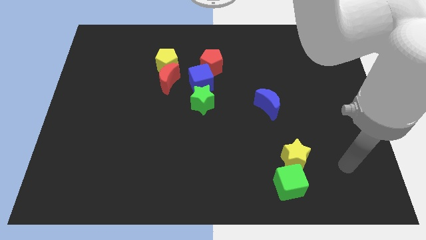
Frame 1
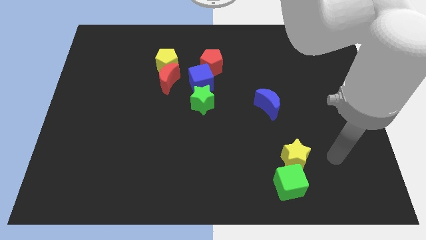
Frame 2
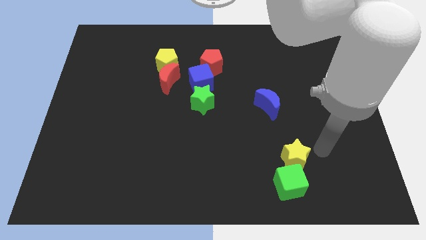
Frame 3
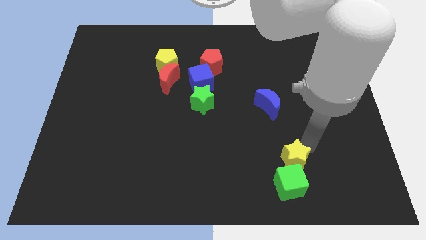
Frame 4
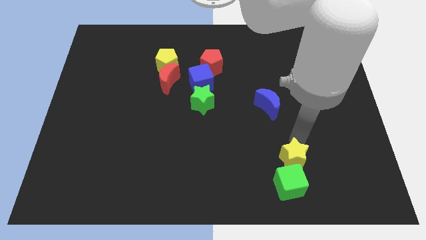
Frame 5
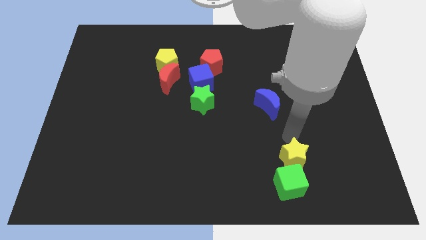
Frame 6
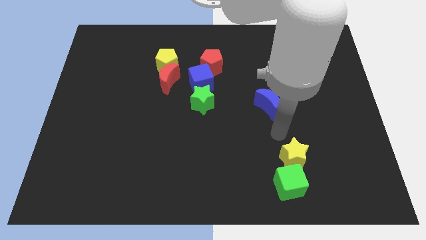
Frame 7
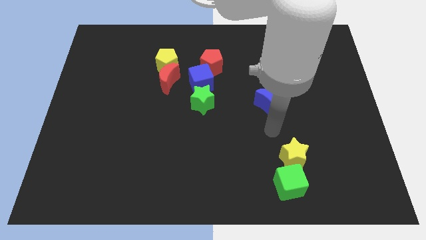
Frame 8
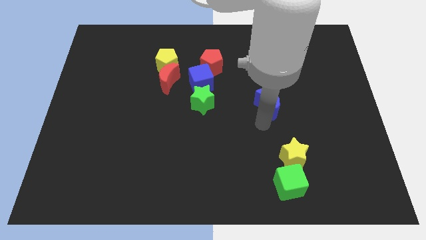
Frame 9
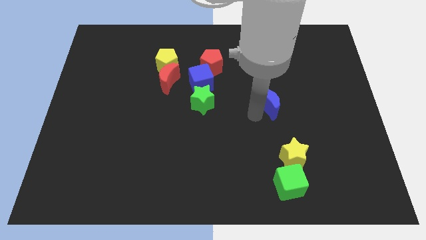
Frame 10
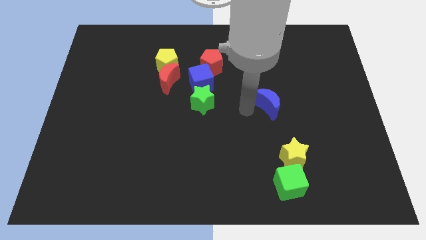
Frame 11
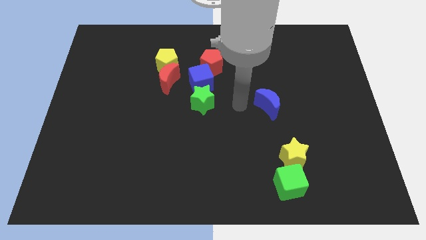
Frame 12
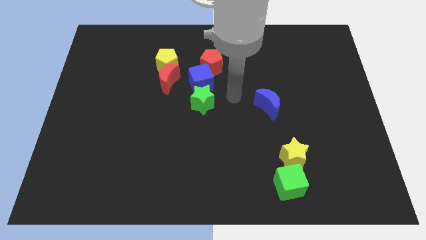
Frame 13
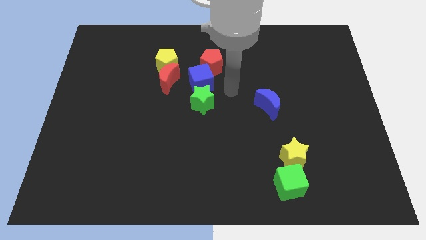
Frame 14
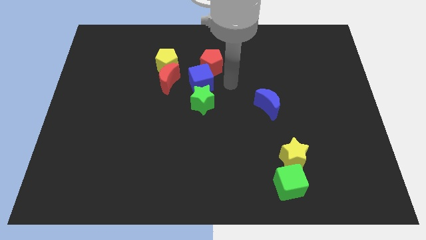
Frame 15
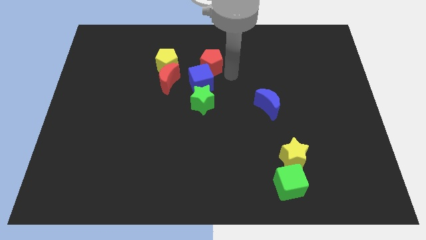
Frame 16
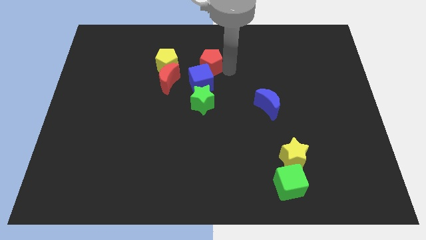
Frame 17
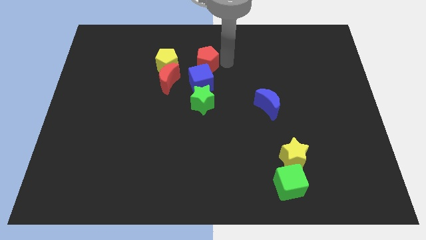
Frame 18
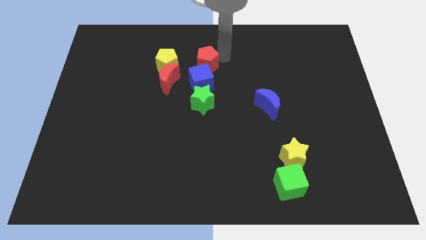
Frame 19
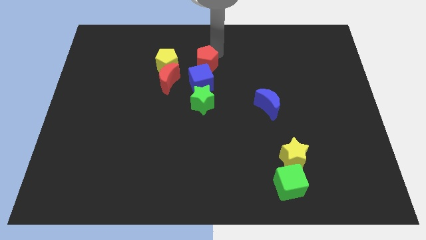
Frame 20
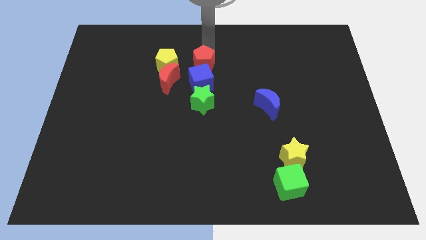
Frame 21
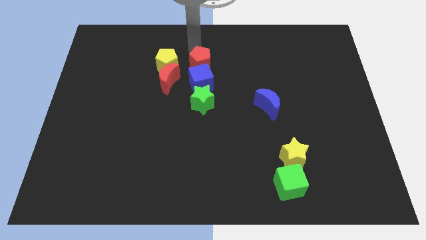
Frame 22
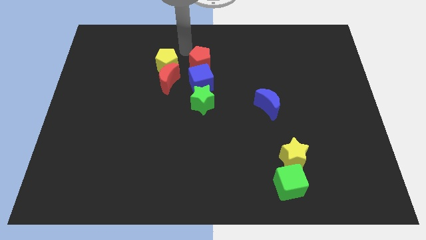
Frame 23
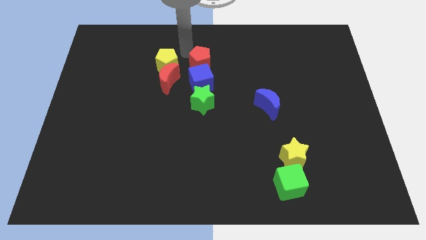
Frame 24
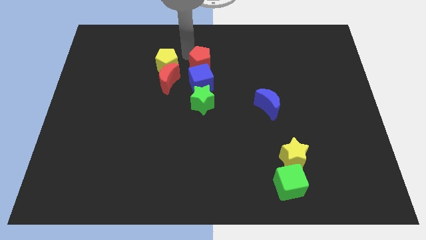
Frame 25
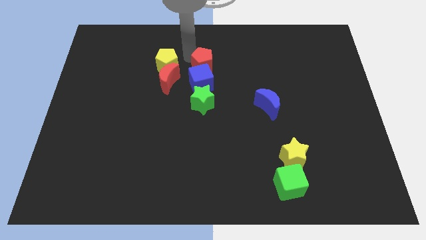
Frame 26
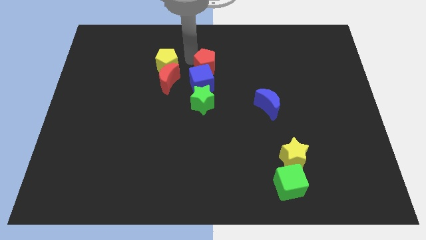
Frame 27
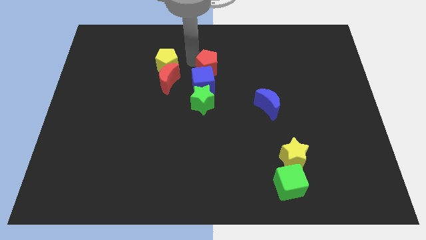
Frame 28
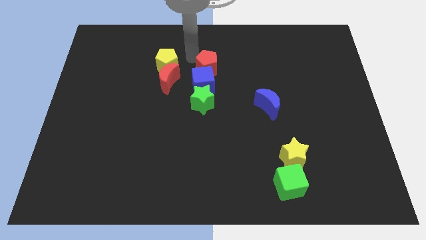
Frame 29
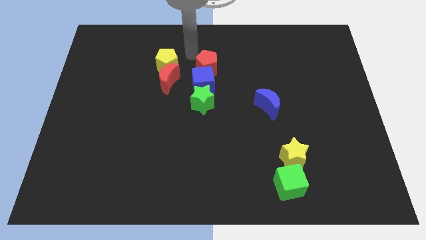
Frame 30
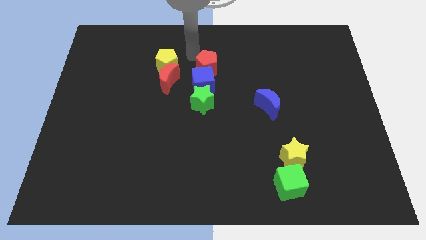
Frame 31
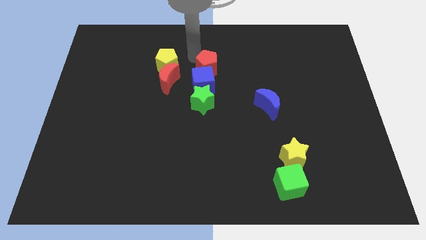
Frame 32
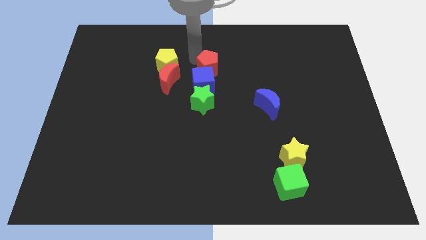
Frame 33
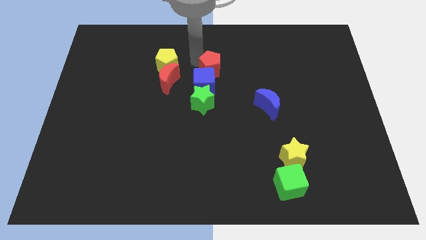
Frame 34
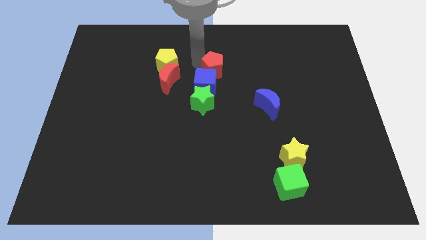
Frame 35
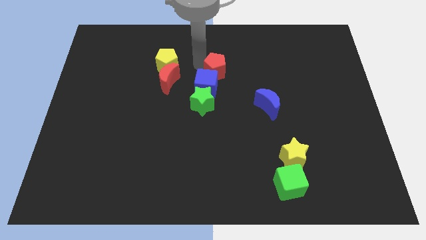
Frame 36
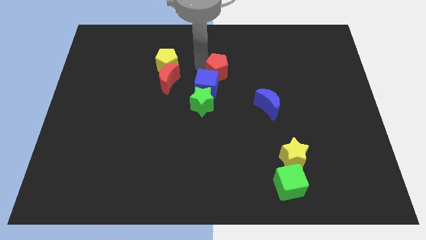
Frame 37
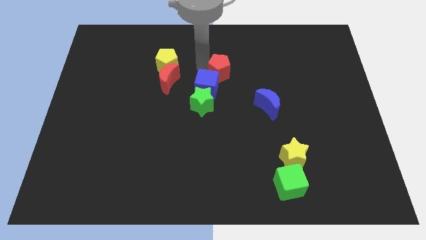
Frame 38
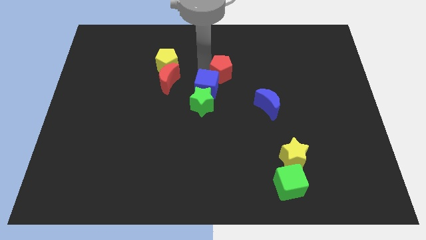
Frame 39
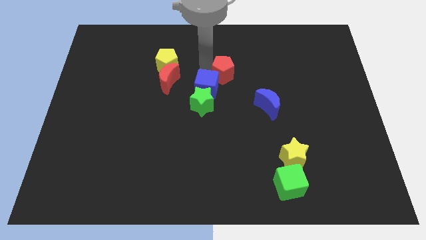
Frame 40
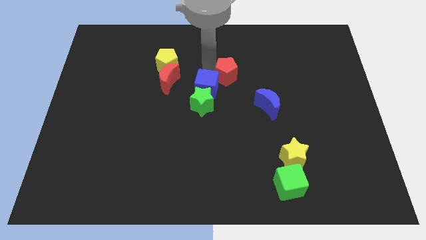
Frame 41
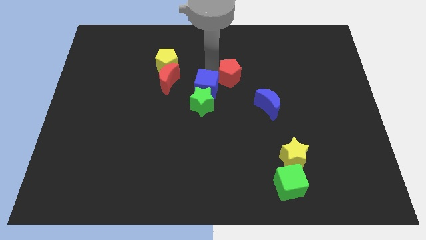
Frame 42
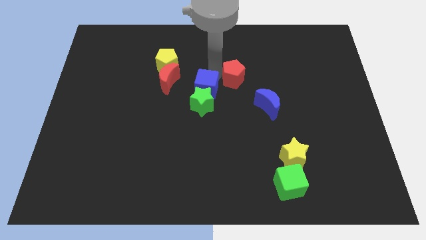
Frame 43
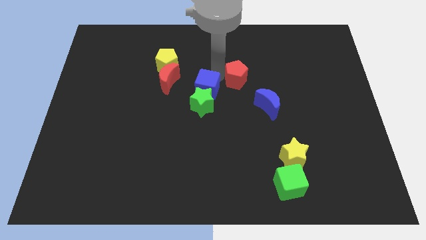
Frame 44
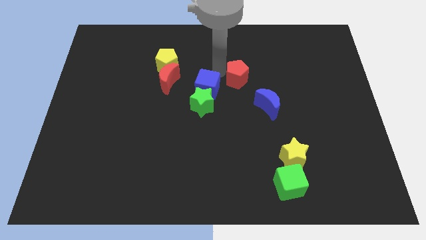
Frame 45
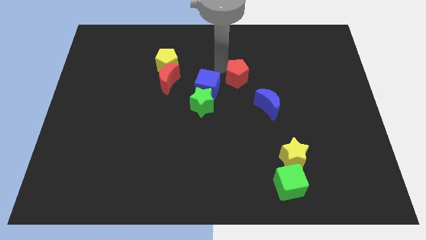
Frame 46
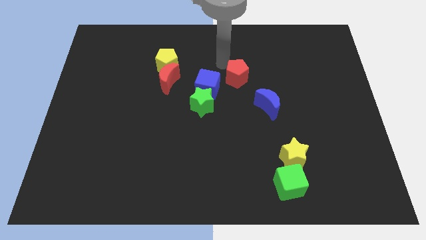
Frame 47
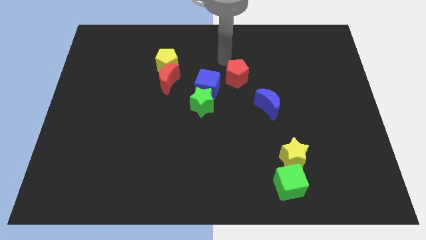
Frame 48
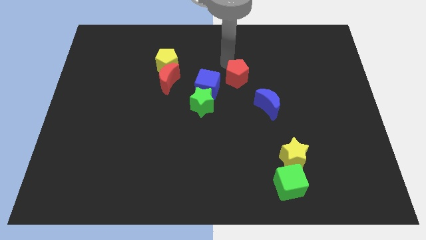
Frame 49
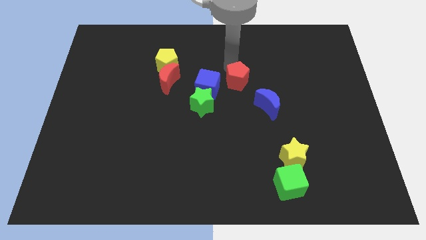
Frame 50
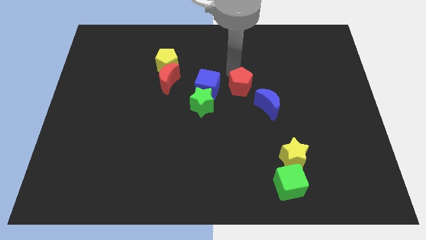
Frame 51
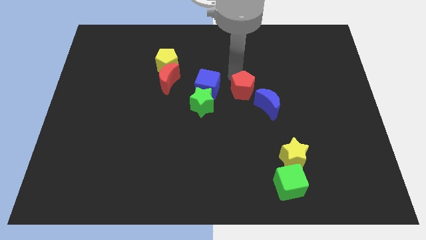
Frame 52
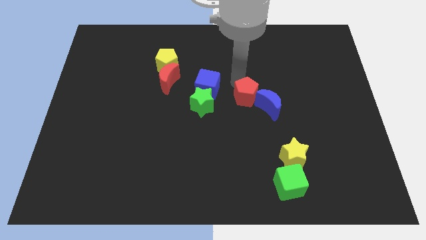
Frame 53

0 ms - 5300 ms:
move the red pentagon next to the blue moon

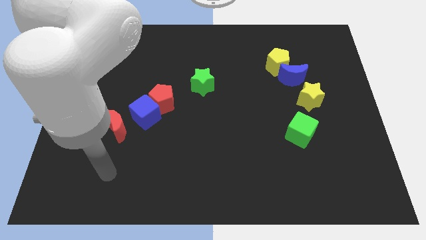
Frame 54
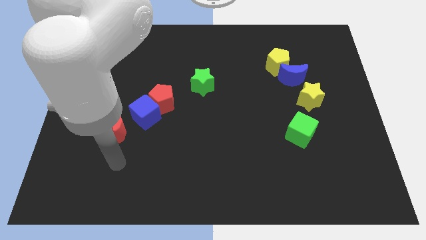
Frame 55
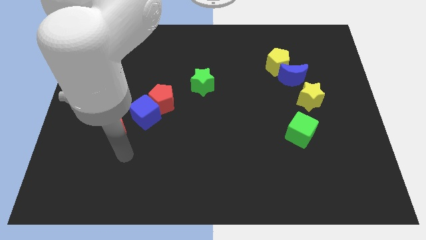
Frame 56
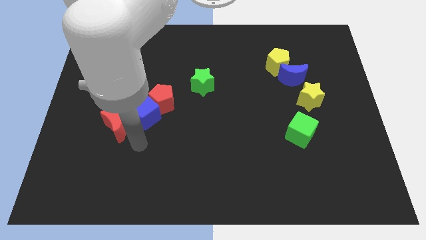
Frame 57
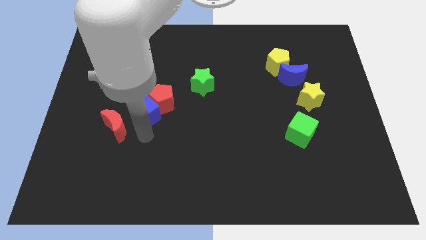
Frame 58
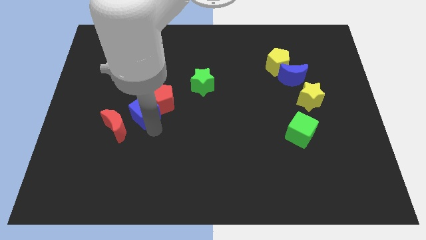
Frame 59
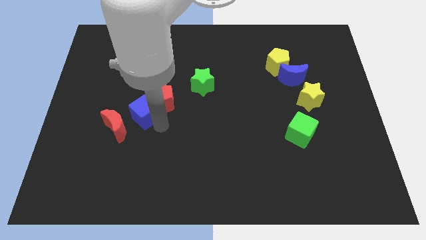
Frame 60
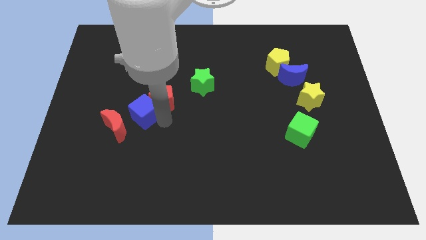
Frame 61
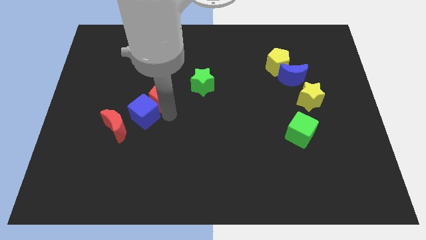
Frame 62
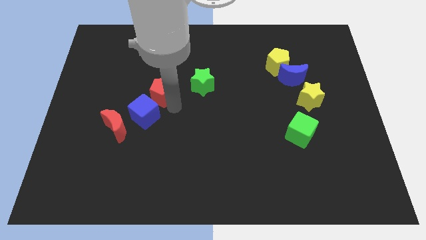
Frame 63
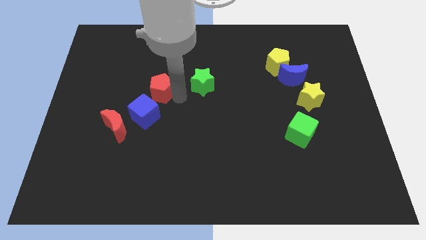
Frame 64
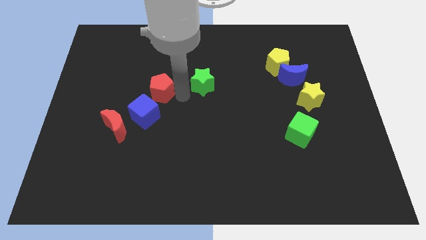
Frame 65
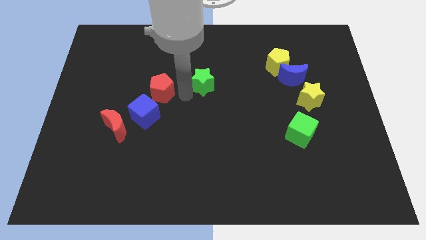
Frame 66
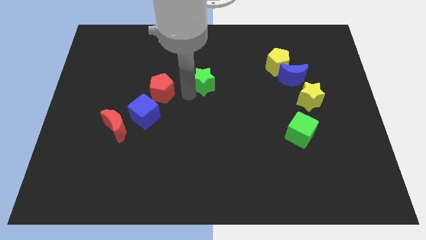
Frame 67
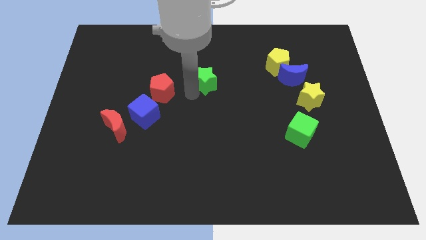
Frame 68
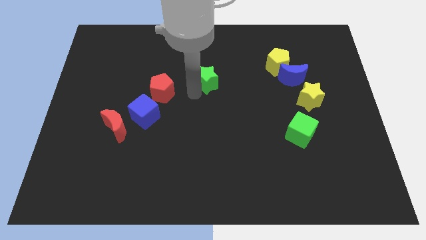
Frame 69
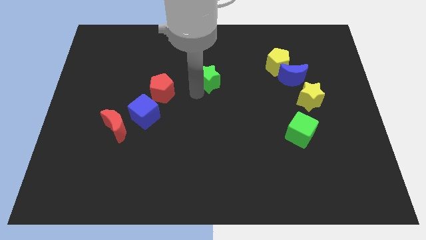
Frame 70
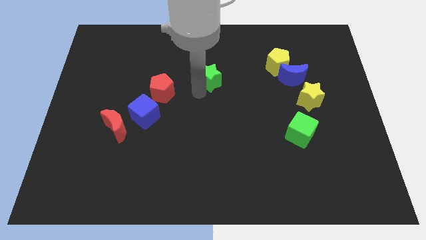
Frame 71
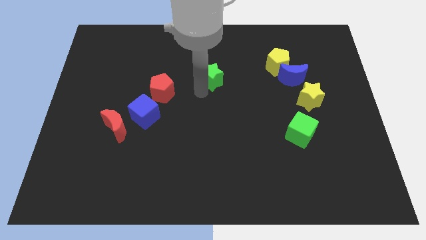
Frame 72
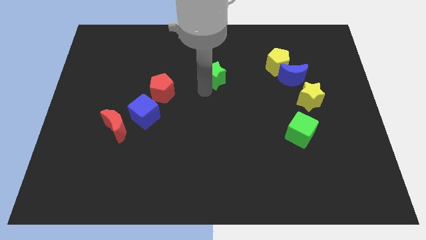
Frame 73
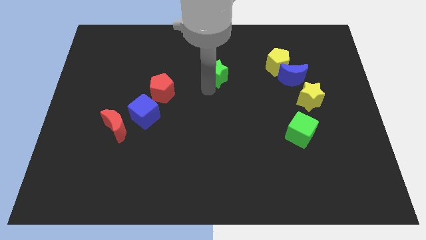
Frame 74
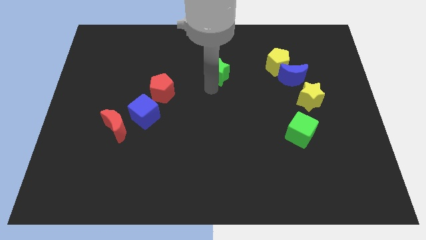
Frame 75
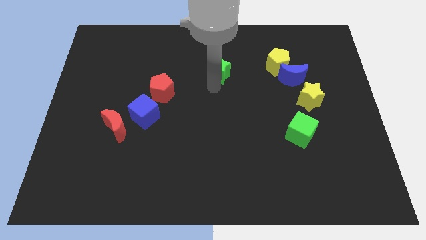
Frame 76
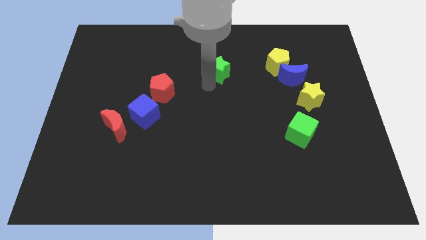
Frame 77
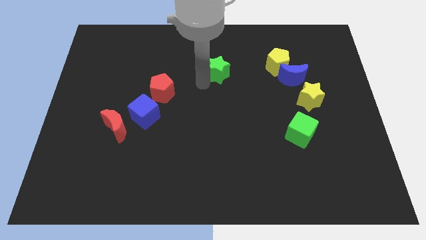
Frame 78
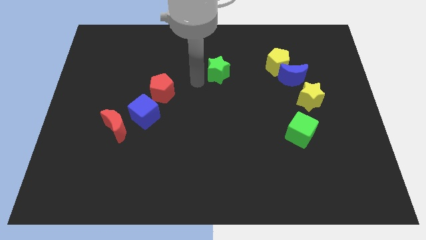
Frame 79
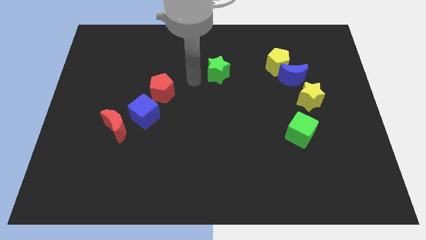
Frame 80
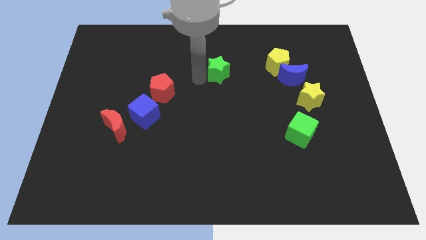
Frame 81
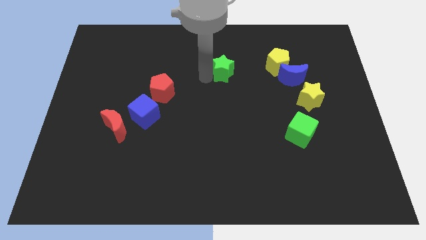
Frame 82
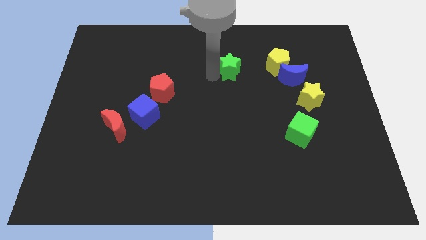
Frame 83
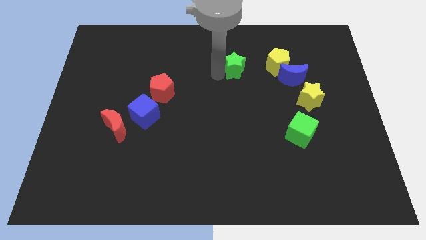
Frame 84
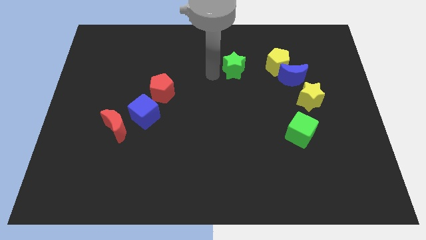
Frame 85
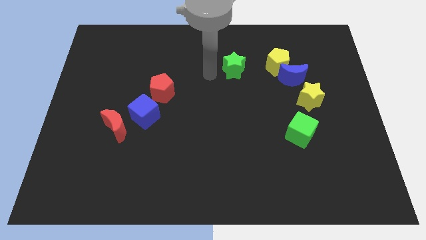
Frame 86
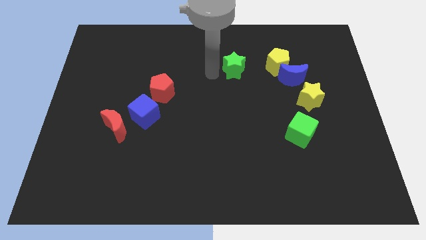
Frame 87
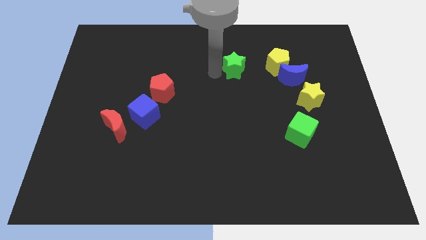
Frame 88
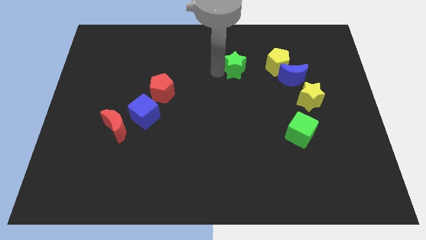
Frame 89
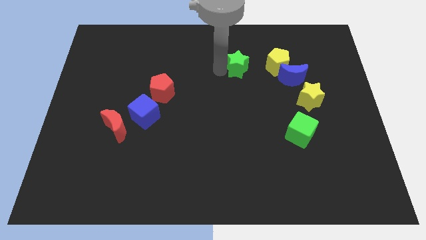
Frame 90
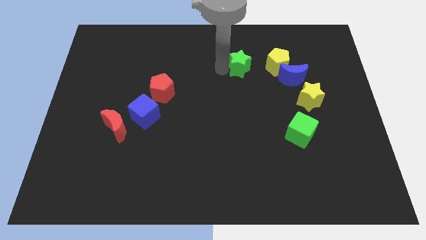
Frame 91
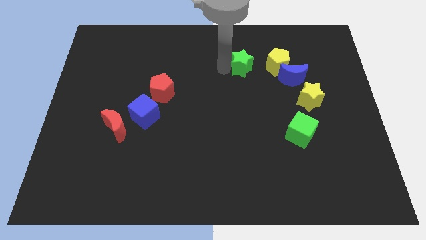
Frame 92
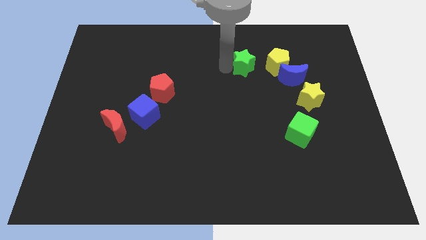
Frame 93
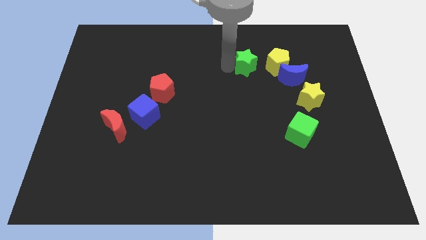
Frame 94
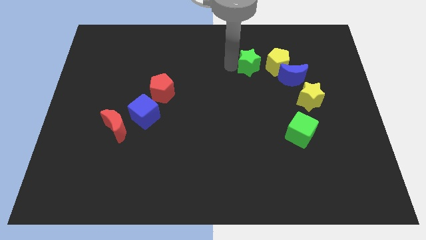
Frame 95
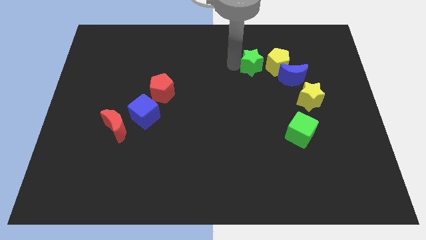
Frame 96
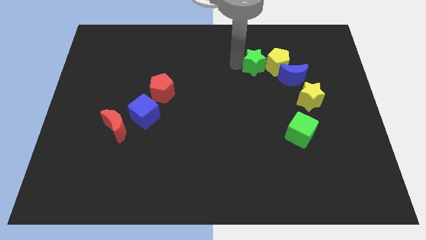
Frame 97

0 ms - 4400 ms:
put the green star towards the yellow pentagon
